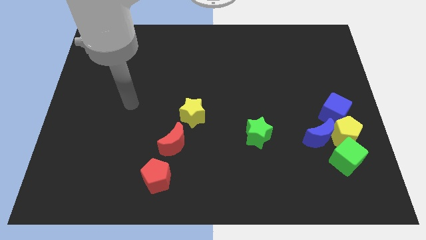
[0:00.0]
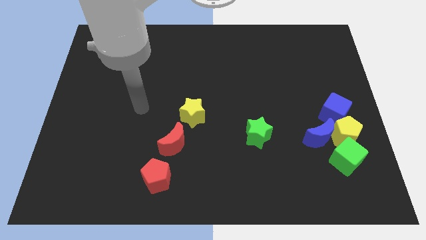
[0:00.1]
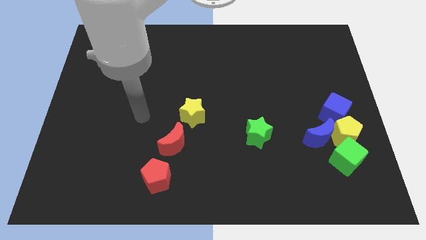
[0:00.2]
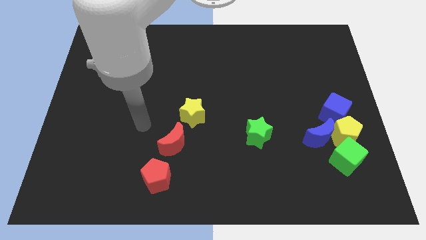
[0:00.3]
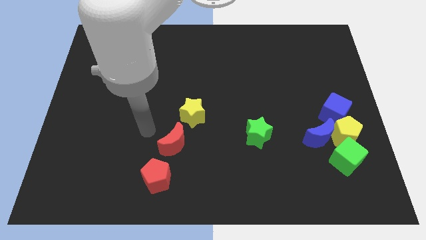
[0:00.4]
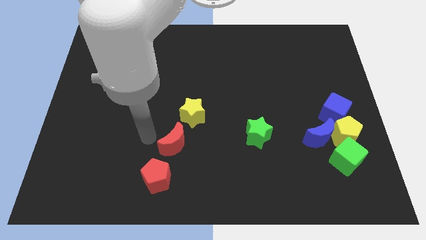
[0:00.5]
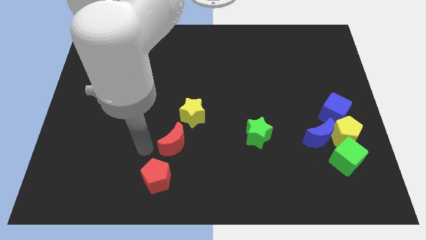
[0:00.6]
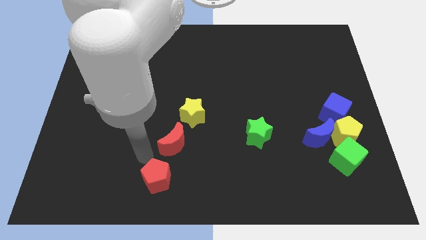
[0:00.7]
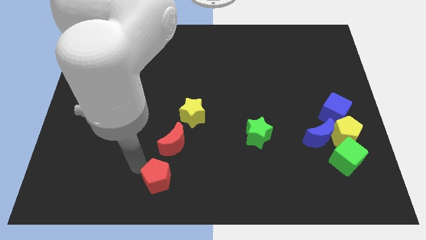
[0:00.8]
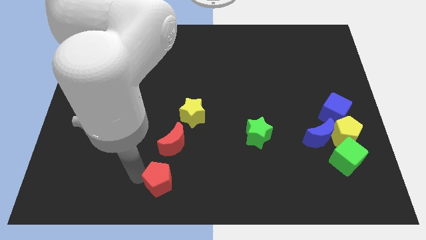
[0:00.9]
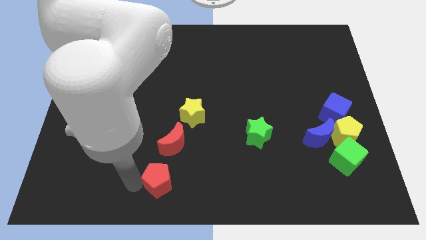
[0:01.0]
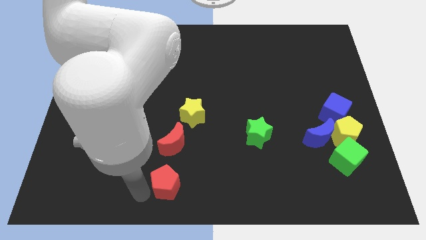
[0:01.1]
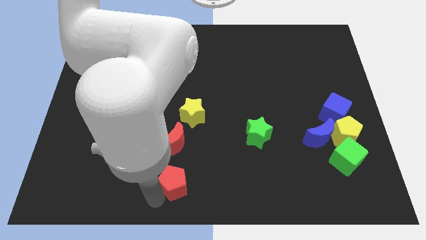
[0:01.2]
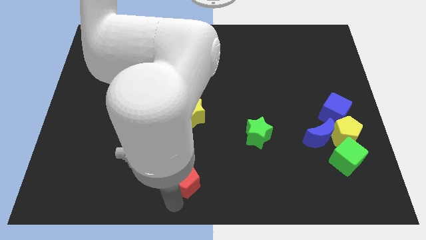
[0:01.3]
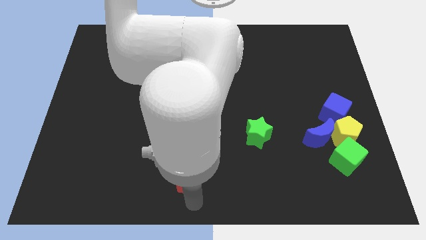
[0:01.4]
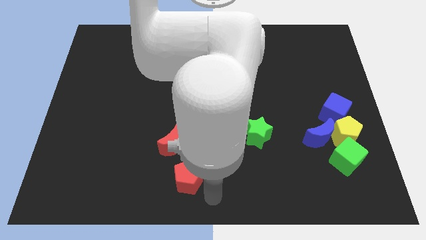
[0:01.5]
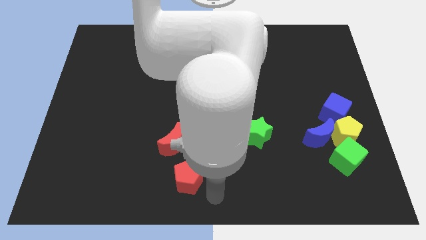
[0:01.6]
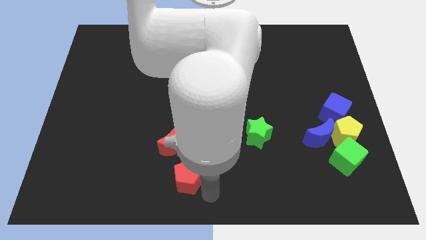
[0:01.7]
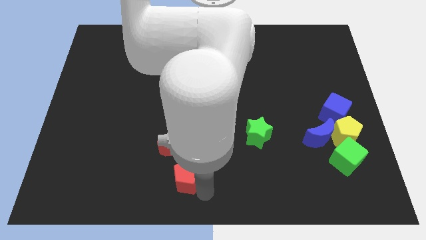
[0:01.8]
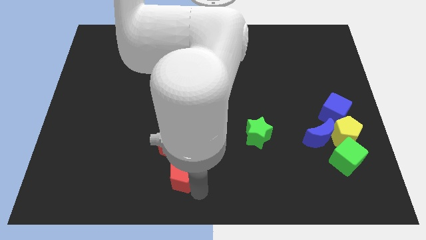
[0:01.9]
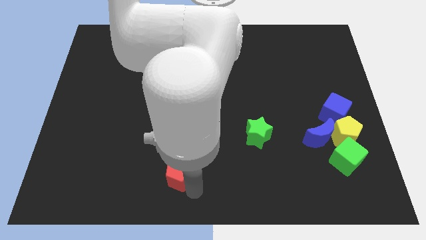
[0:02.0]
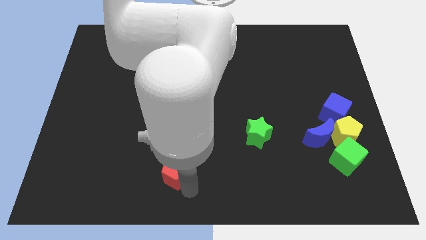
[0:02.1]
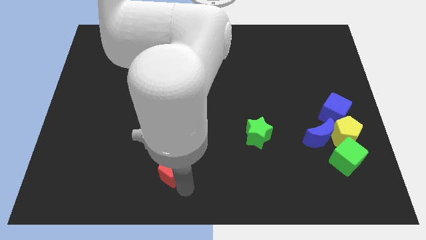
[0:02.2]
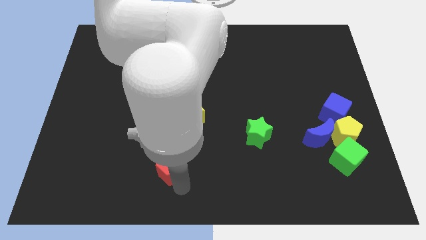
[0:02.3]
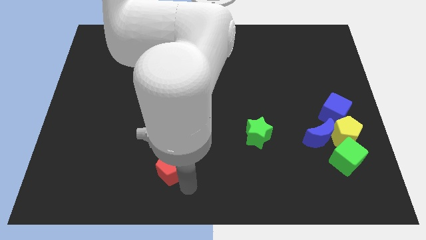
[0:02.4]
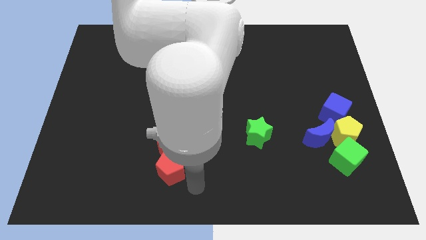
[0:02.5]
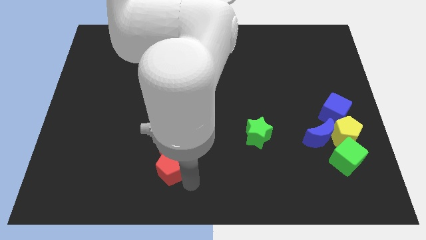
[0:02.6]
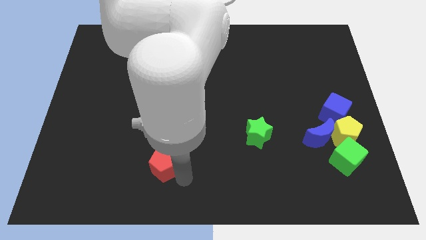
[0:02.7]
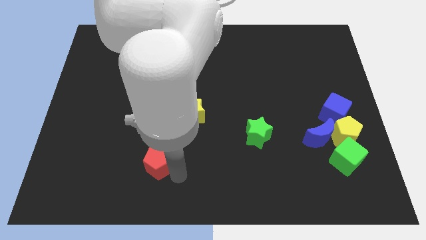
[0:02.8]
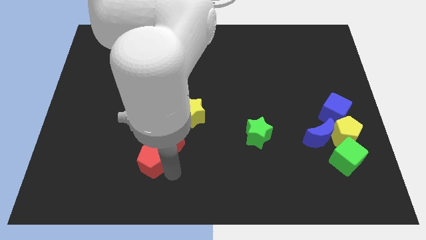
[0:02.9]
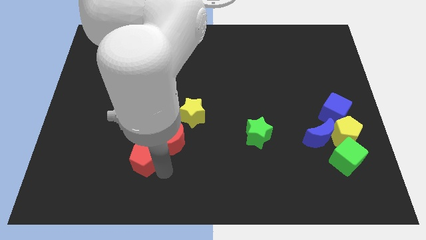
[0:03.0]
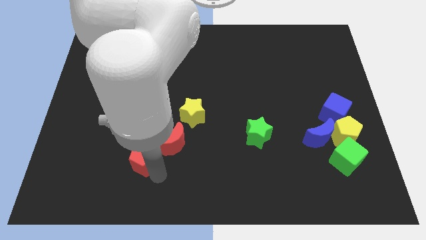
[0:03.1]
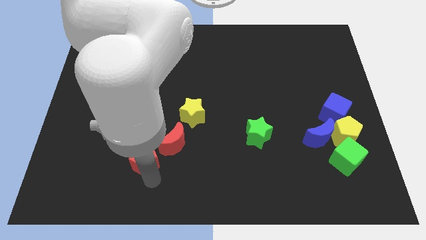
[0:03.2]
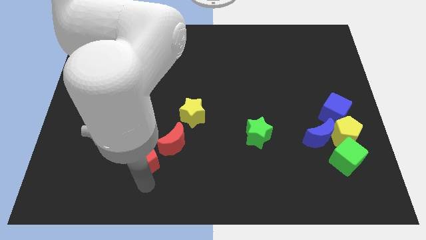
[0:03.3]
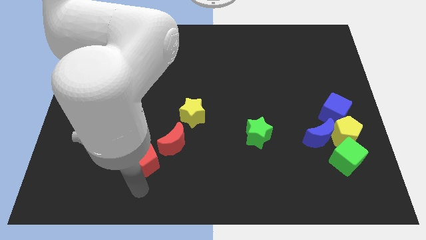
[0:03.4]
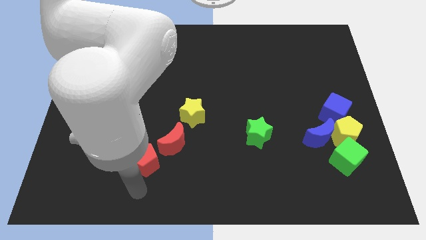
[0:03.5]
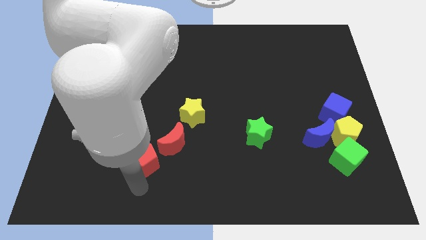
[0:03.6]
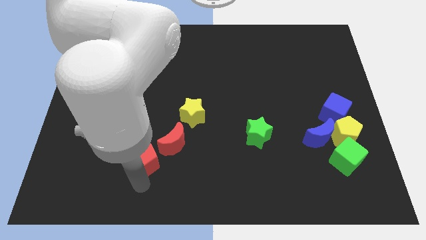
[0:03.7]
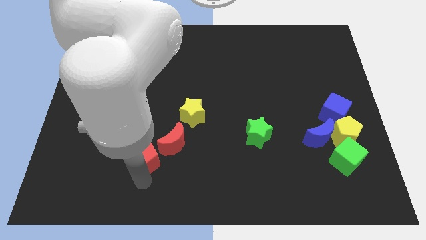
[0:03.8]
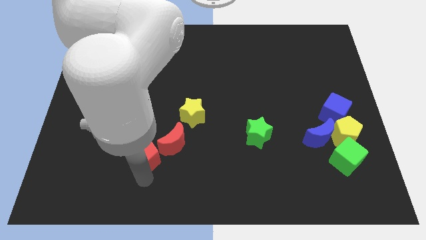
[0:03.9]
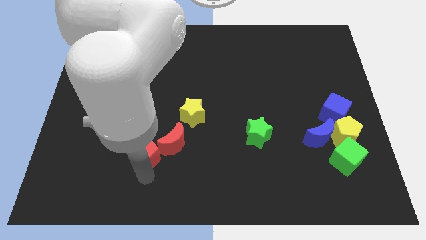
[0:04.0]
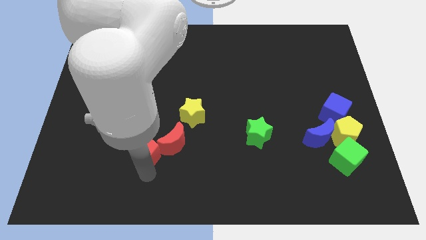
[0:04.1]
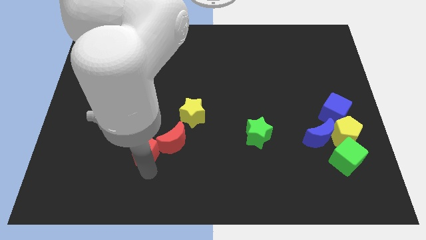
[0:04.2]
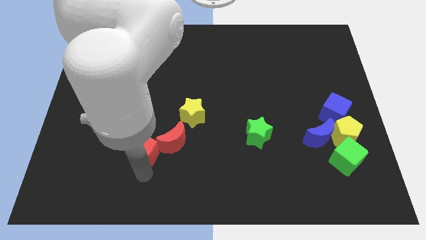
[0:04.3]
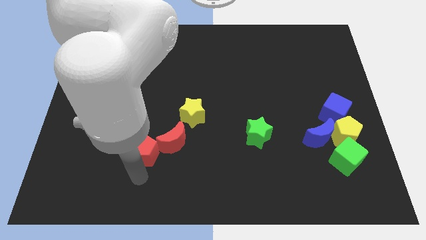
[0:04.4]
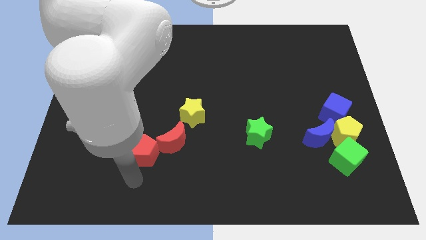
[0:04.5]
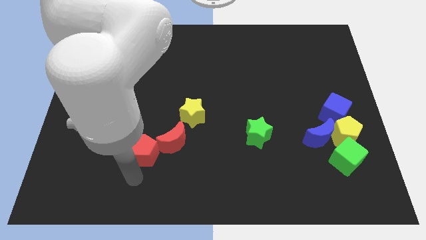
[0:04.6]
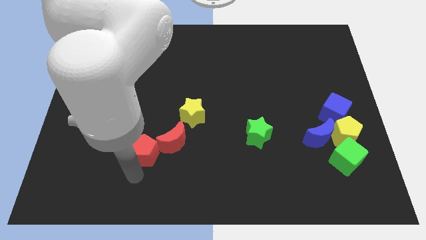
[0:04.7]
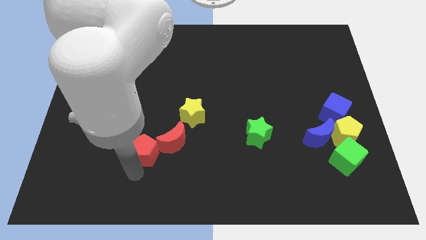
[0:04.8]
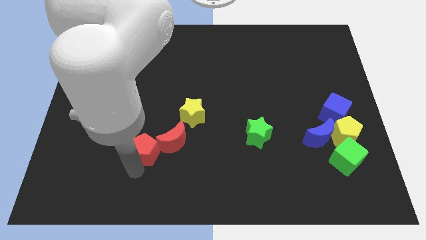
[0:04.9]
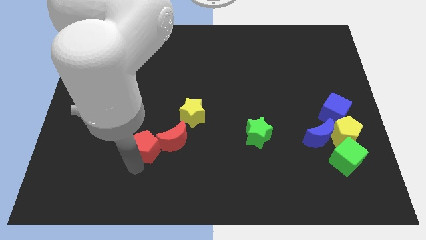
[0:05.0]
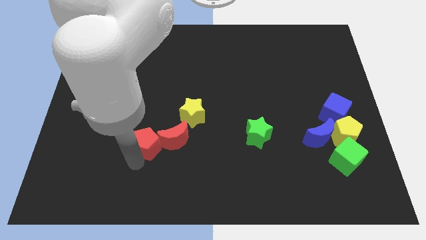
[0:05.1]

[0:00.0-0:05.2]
slide the red pentagon upwards slightly

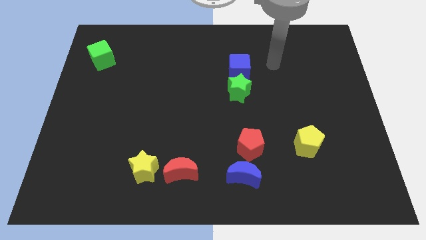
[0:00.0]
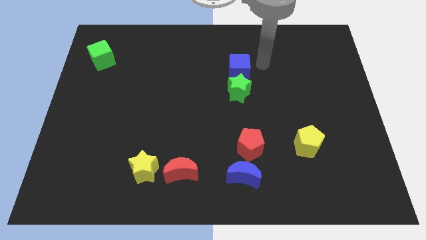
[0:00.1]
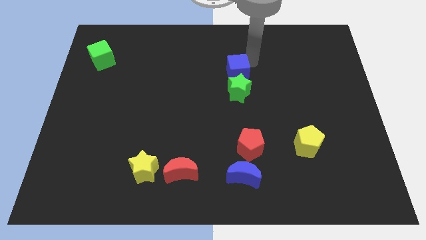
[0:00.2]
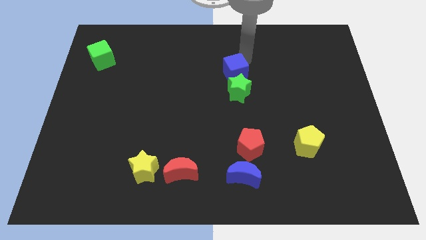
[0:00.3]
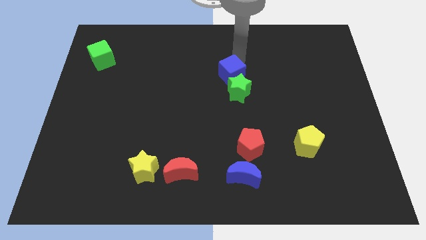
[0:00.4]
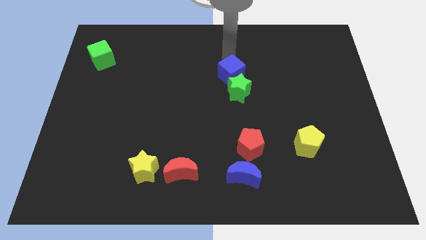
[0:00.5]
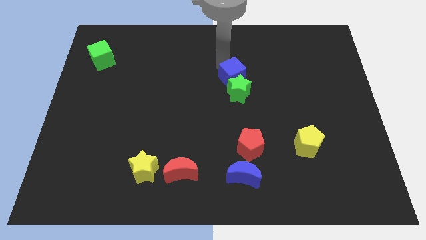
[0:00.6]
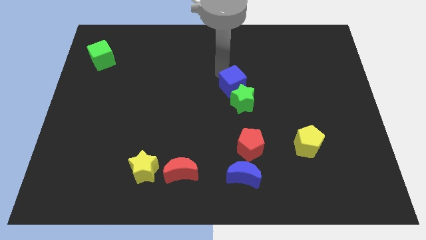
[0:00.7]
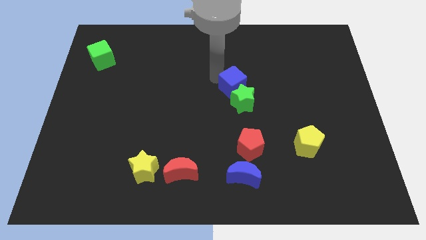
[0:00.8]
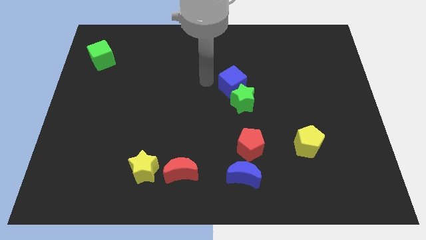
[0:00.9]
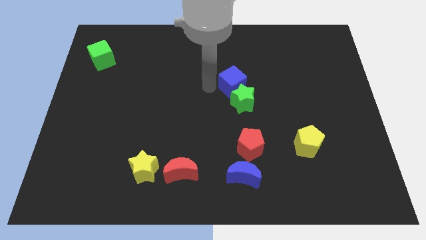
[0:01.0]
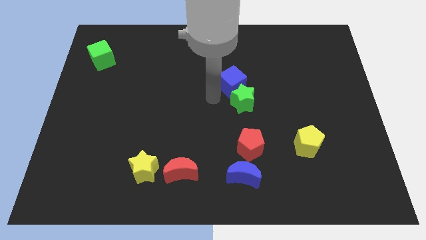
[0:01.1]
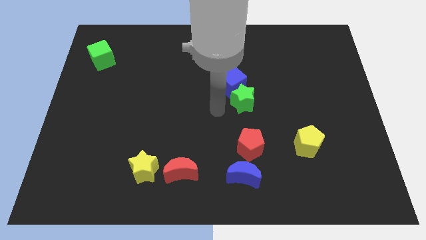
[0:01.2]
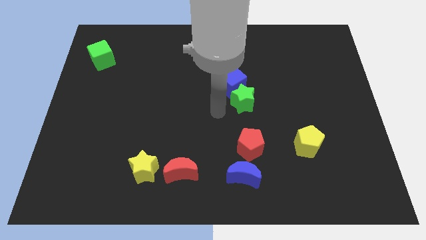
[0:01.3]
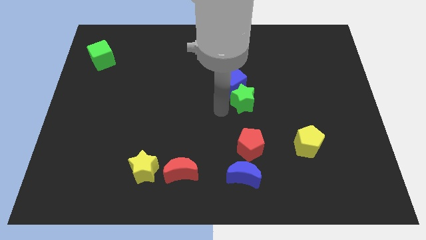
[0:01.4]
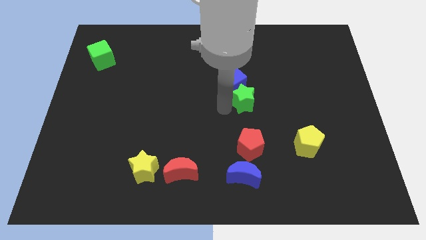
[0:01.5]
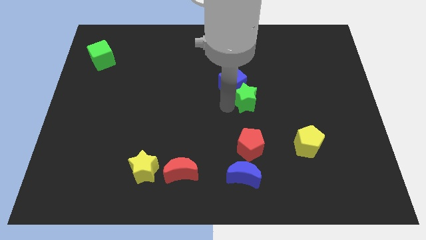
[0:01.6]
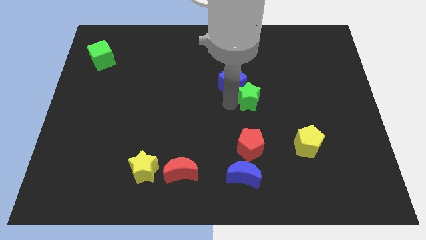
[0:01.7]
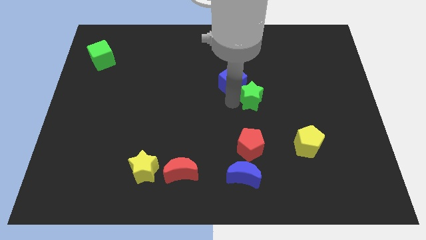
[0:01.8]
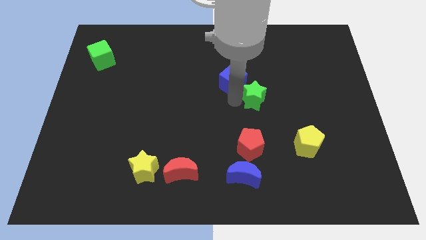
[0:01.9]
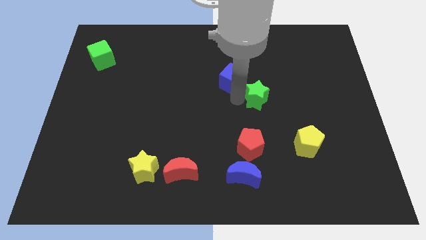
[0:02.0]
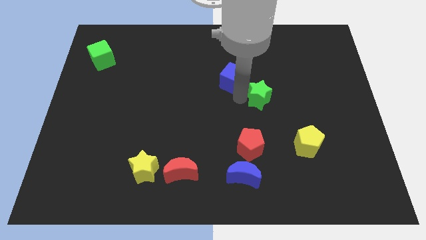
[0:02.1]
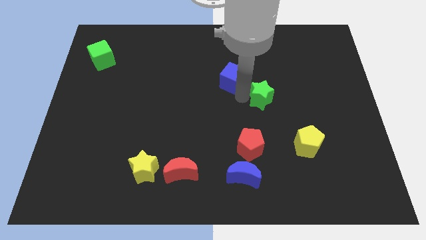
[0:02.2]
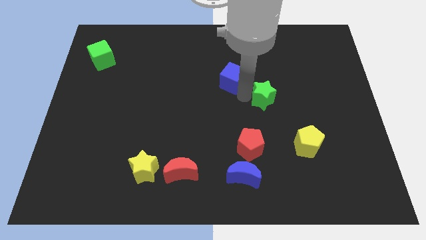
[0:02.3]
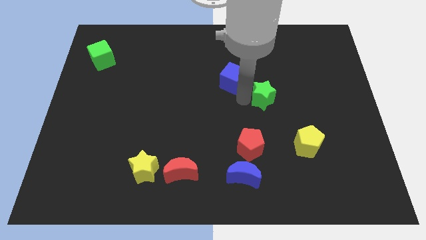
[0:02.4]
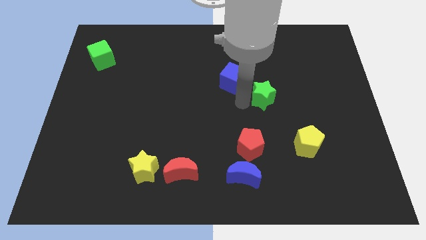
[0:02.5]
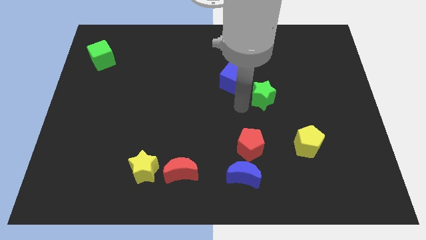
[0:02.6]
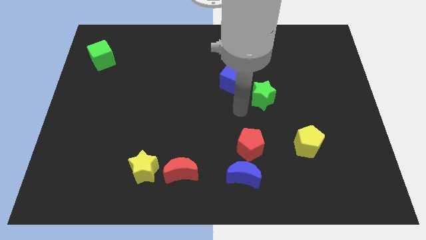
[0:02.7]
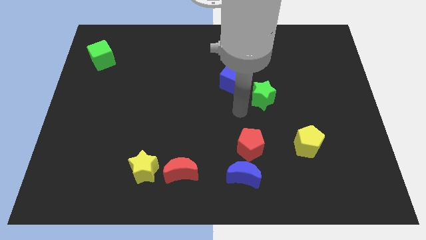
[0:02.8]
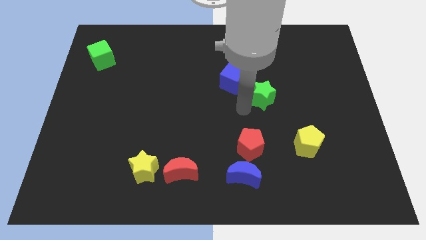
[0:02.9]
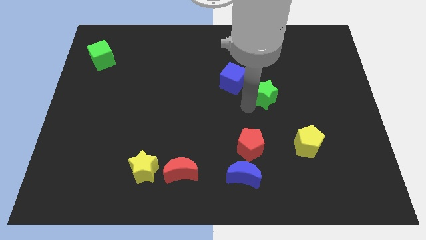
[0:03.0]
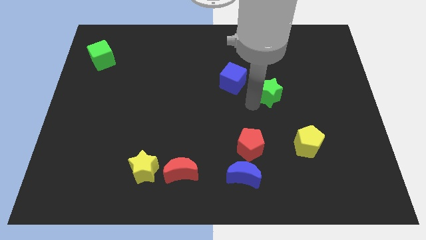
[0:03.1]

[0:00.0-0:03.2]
push the green star right slightly
